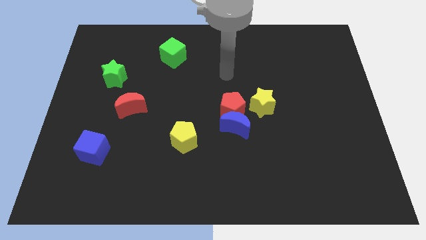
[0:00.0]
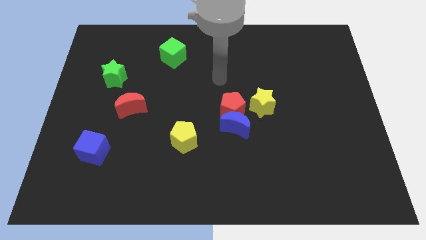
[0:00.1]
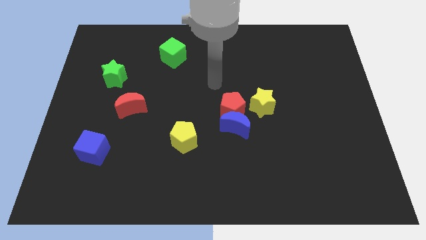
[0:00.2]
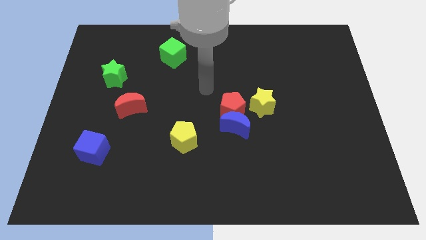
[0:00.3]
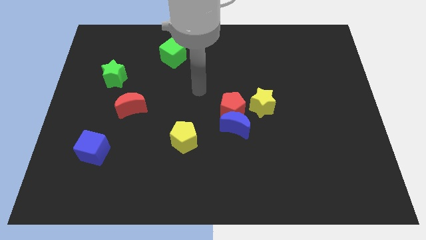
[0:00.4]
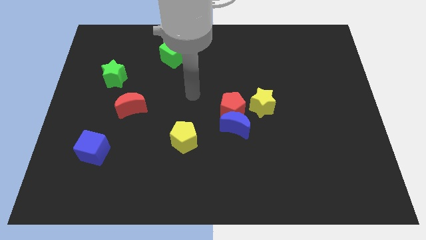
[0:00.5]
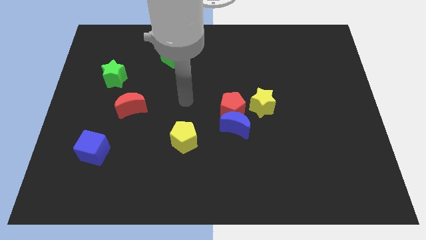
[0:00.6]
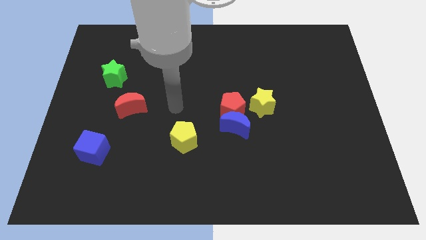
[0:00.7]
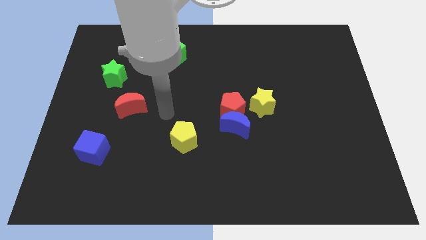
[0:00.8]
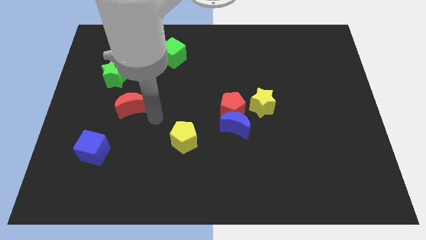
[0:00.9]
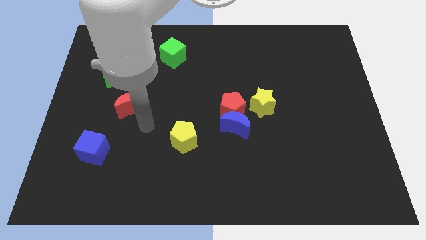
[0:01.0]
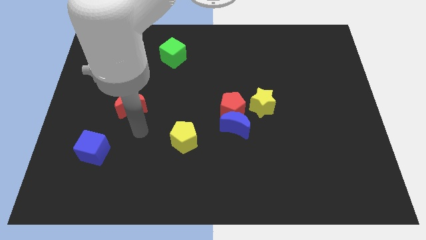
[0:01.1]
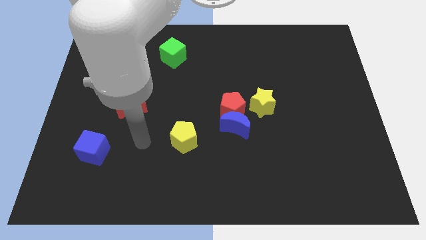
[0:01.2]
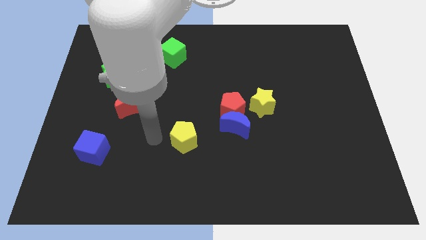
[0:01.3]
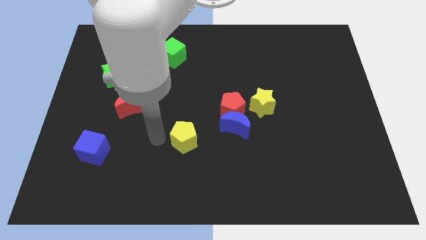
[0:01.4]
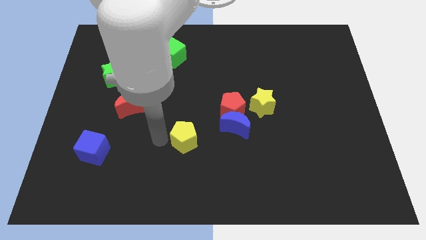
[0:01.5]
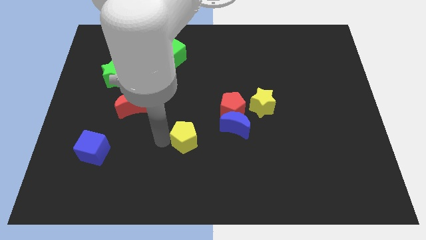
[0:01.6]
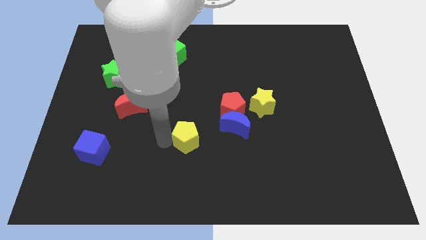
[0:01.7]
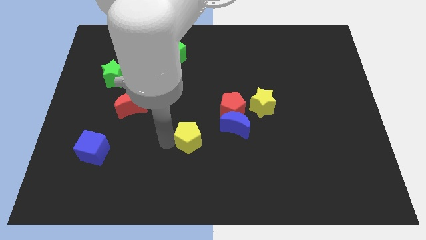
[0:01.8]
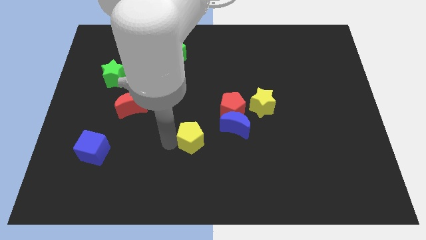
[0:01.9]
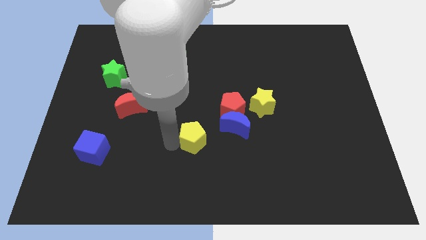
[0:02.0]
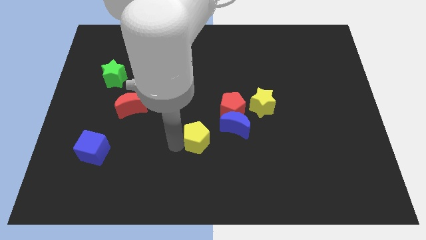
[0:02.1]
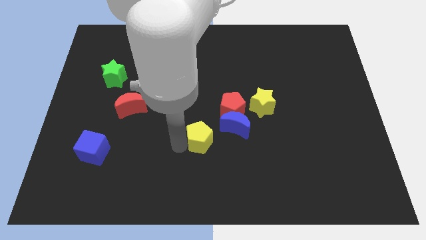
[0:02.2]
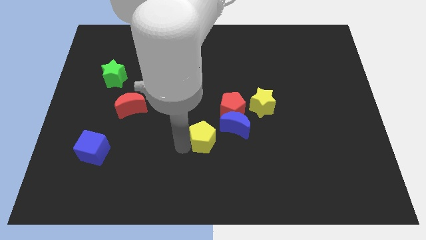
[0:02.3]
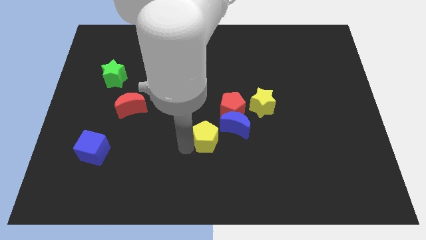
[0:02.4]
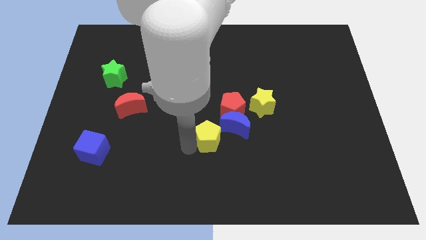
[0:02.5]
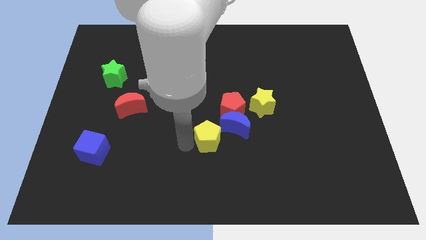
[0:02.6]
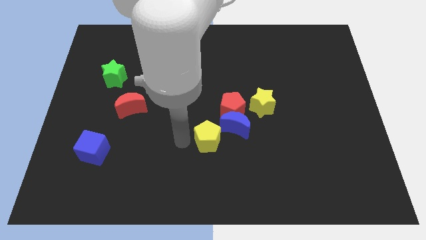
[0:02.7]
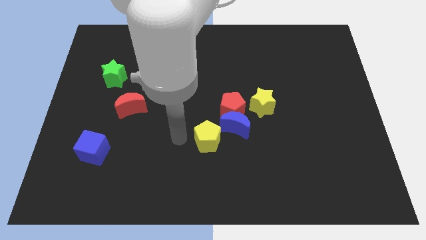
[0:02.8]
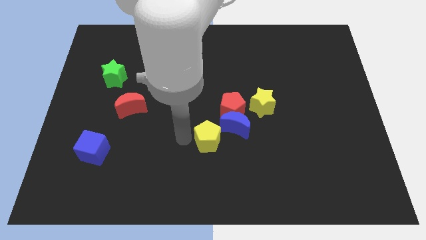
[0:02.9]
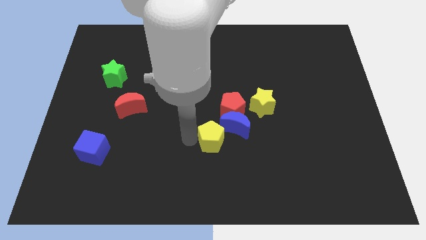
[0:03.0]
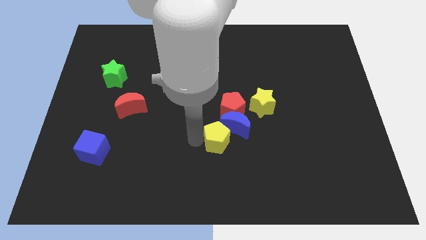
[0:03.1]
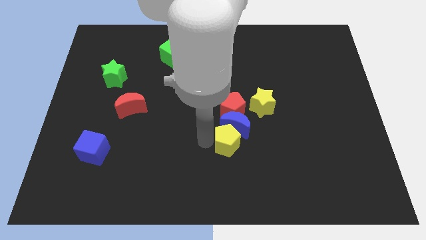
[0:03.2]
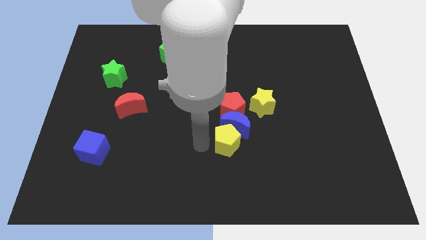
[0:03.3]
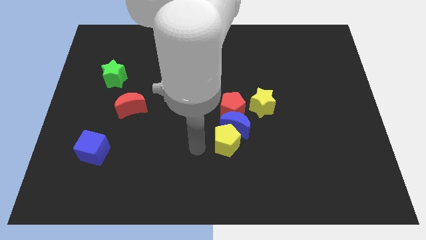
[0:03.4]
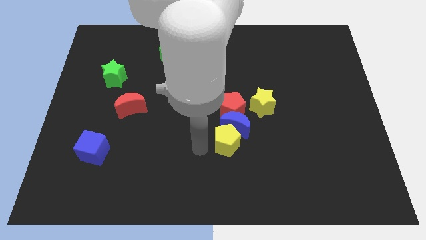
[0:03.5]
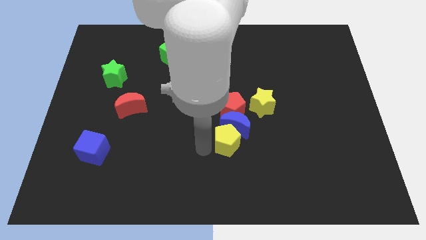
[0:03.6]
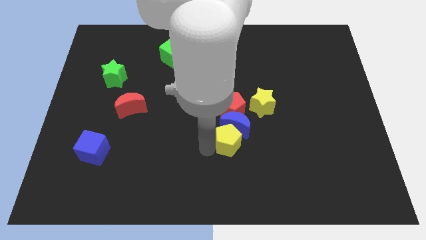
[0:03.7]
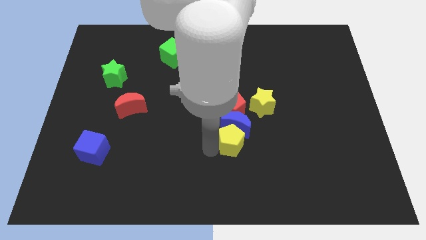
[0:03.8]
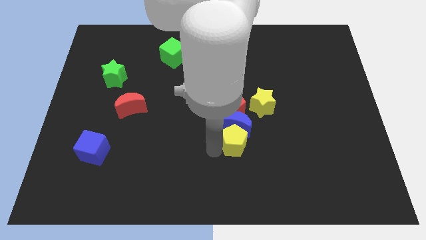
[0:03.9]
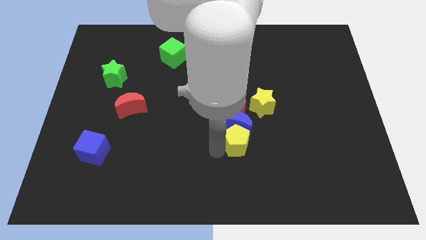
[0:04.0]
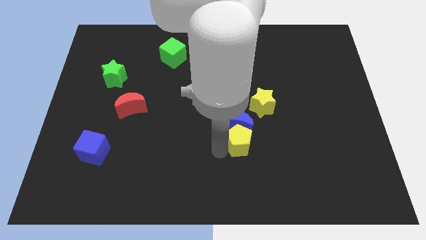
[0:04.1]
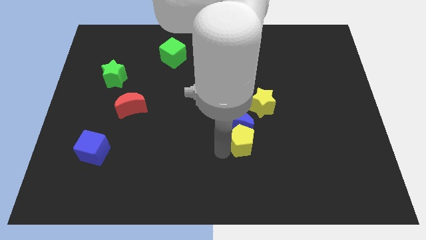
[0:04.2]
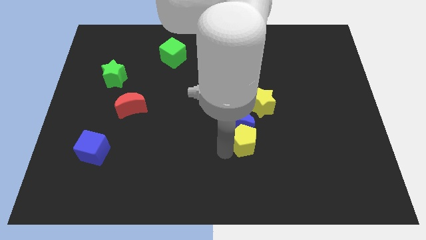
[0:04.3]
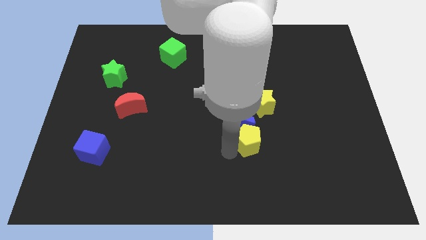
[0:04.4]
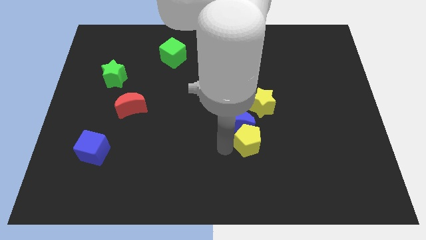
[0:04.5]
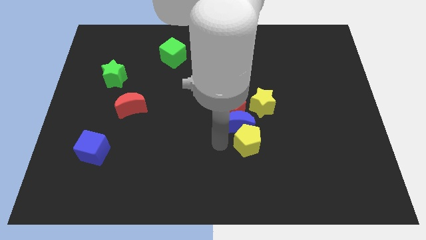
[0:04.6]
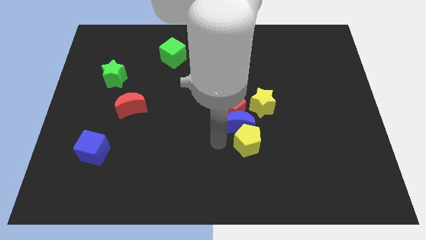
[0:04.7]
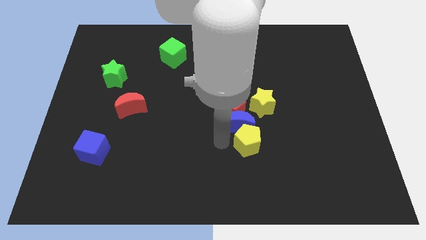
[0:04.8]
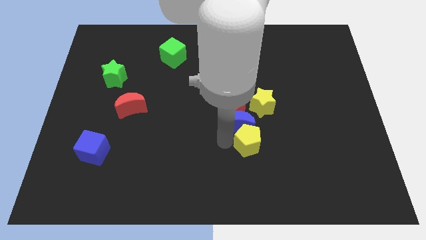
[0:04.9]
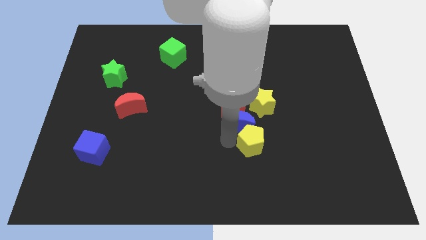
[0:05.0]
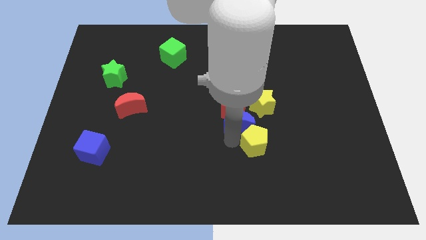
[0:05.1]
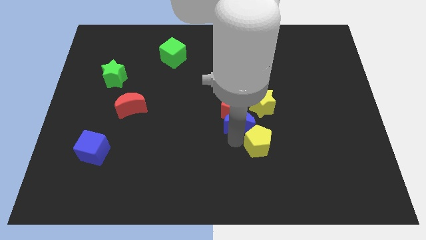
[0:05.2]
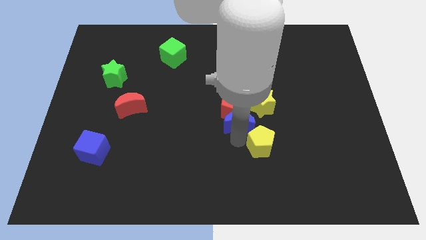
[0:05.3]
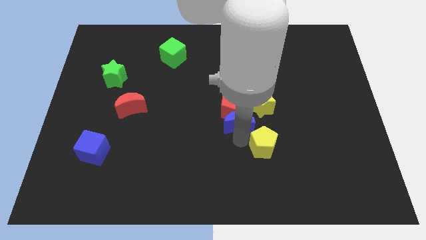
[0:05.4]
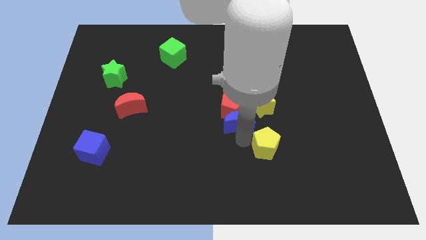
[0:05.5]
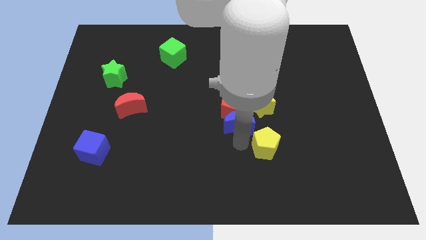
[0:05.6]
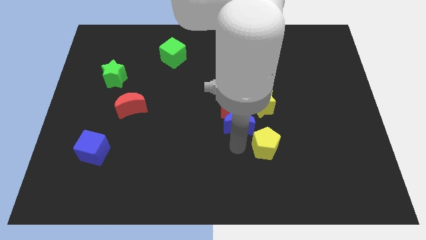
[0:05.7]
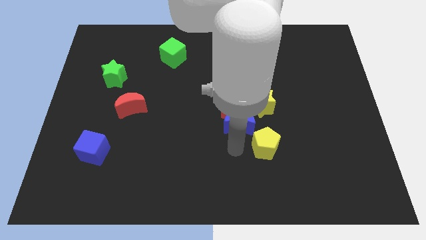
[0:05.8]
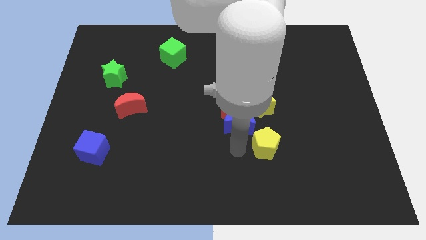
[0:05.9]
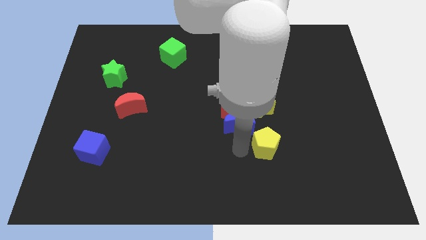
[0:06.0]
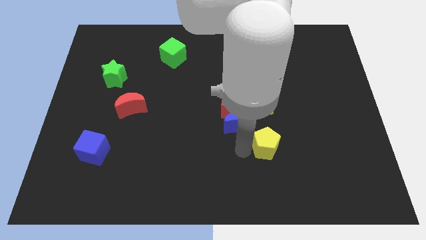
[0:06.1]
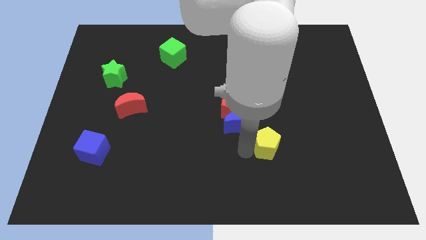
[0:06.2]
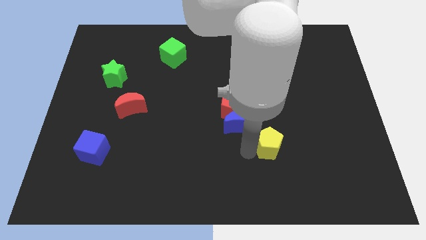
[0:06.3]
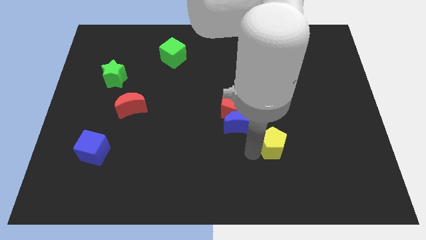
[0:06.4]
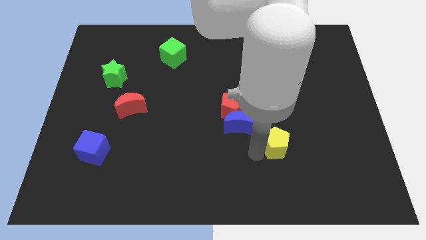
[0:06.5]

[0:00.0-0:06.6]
slide the yellow pentagon to the right

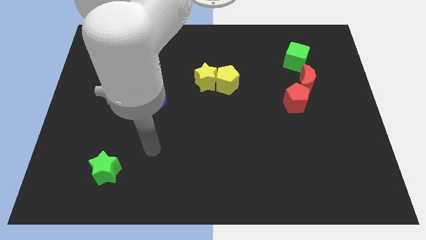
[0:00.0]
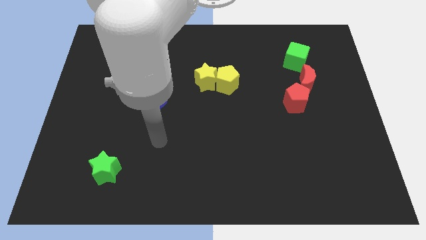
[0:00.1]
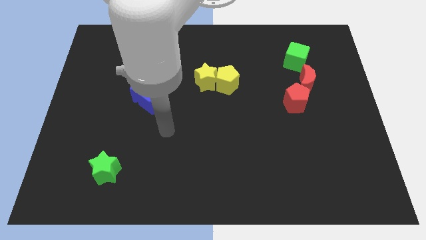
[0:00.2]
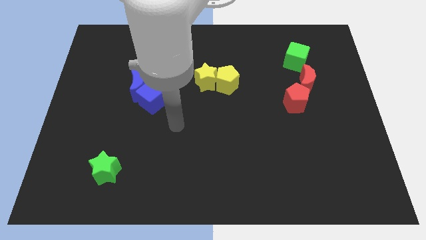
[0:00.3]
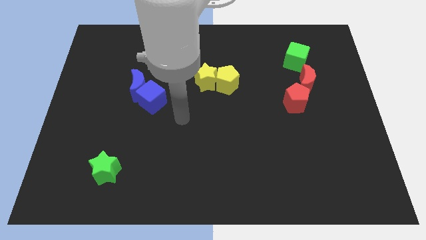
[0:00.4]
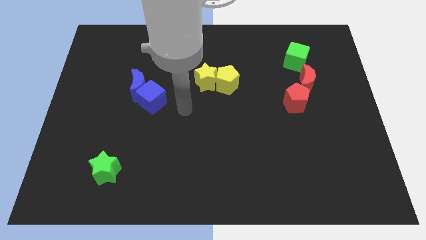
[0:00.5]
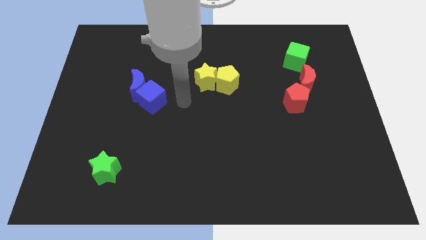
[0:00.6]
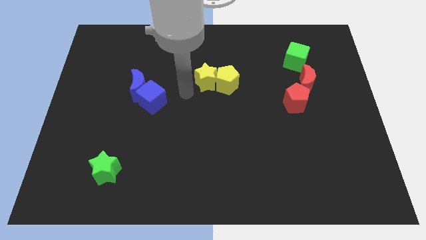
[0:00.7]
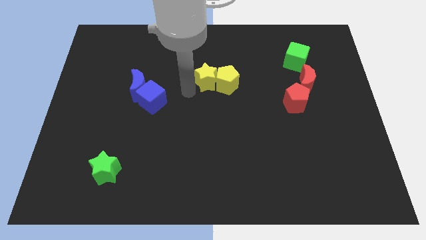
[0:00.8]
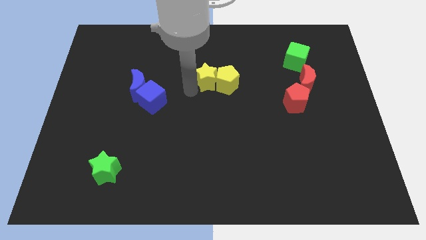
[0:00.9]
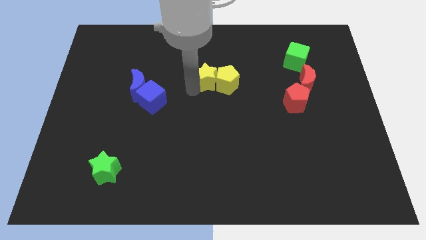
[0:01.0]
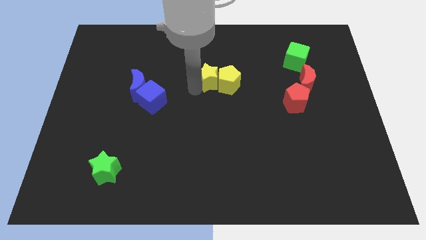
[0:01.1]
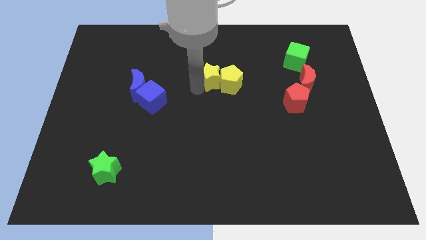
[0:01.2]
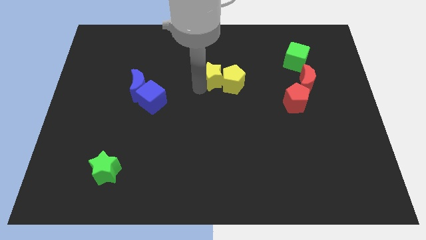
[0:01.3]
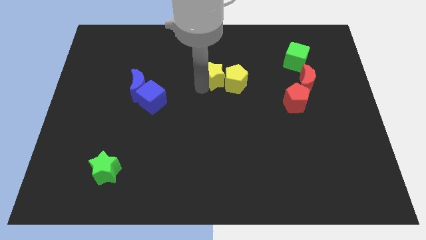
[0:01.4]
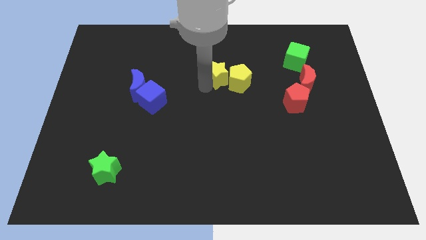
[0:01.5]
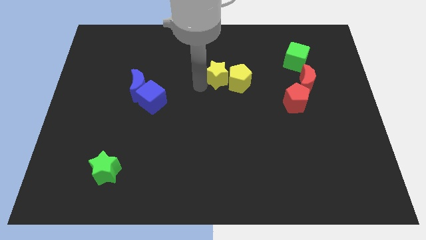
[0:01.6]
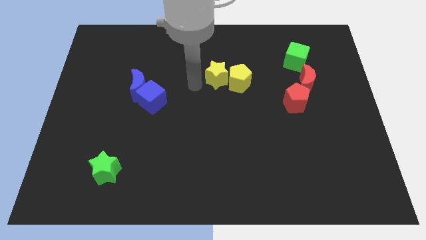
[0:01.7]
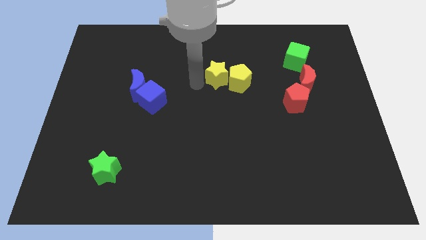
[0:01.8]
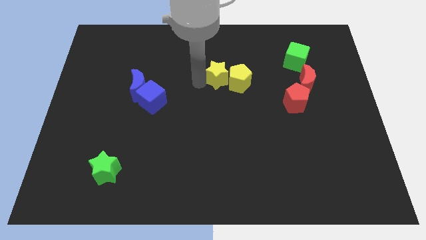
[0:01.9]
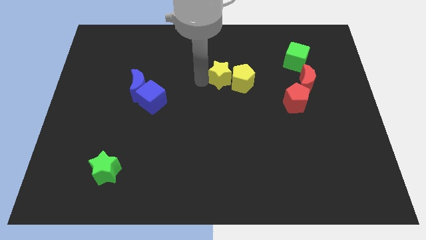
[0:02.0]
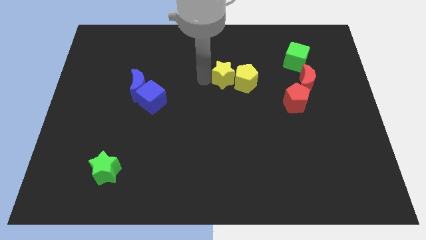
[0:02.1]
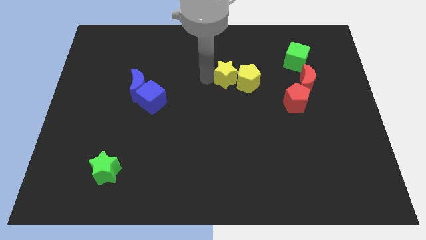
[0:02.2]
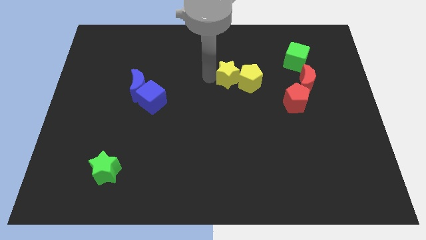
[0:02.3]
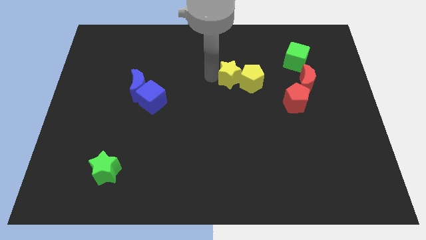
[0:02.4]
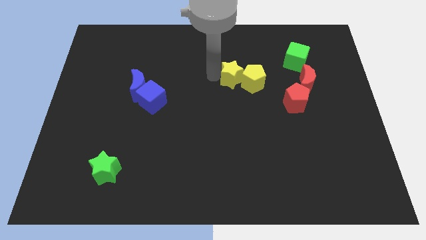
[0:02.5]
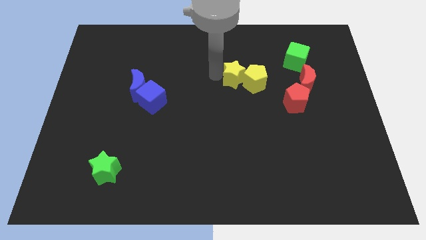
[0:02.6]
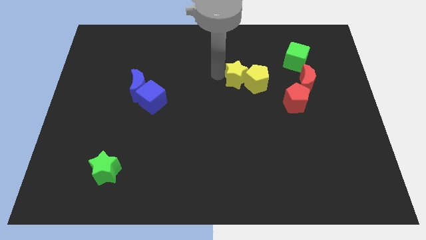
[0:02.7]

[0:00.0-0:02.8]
move the yellow star to the right a bit
